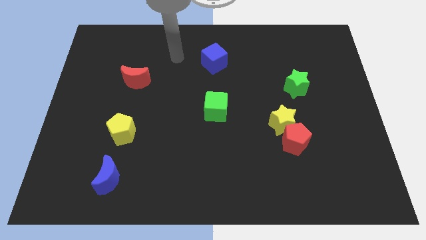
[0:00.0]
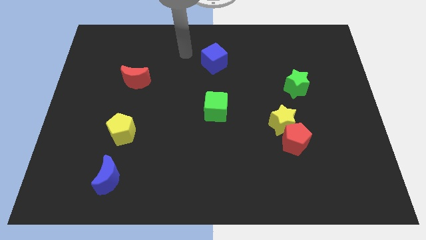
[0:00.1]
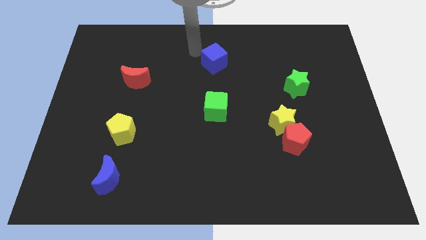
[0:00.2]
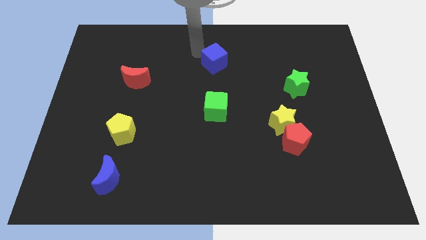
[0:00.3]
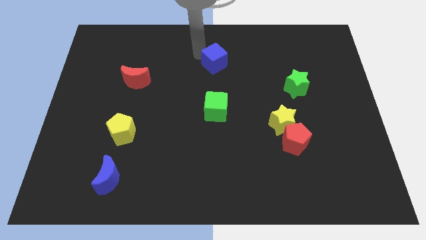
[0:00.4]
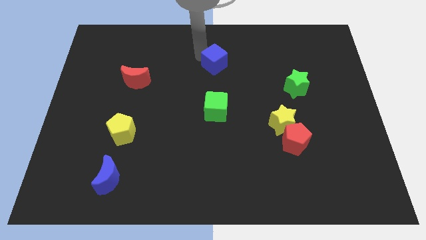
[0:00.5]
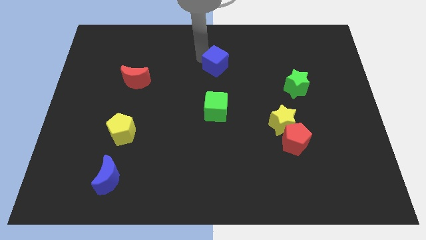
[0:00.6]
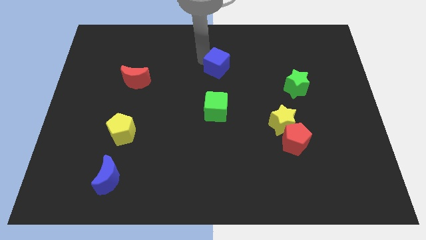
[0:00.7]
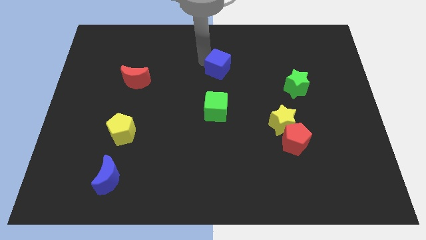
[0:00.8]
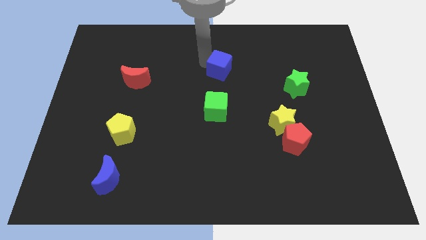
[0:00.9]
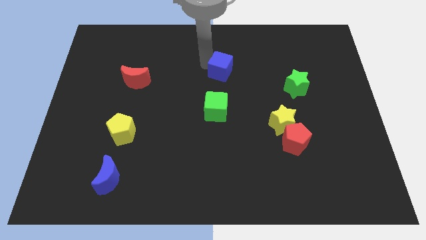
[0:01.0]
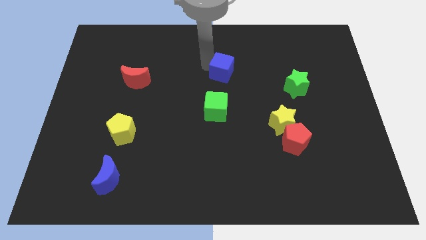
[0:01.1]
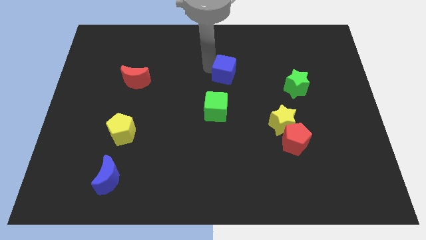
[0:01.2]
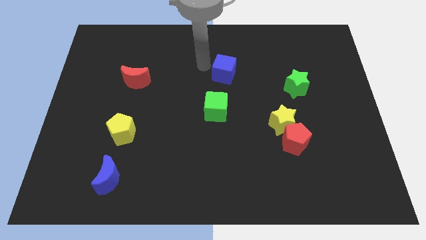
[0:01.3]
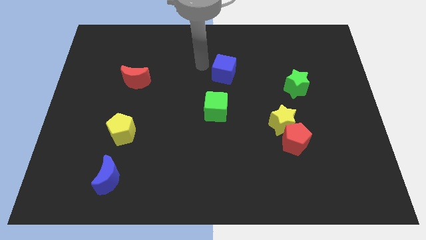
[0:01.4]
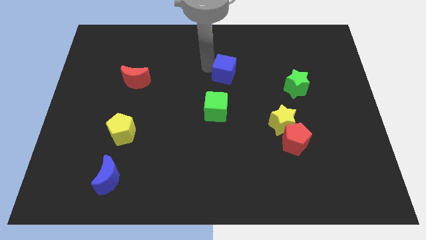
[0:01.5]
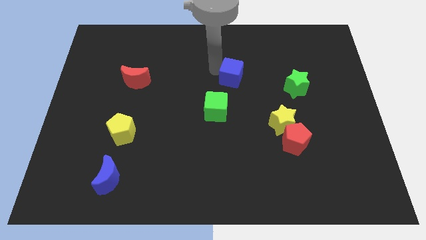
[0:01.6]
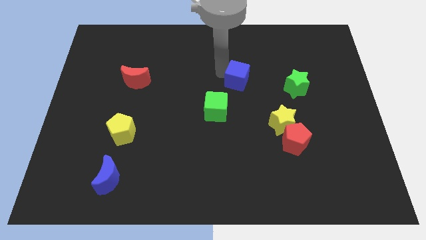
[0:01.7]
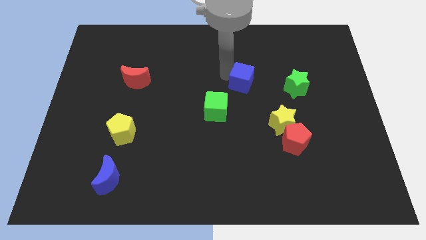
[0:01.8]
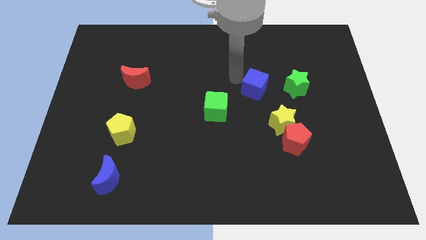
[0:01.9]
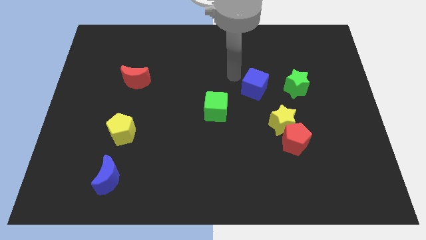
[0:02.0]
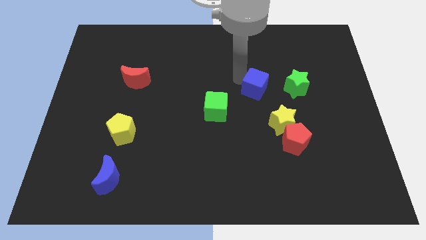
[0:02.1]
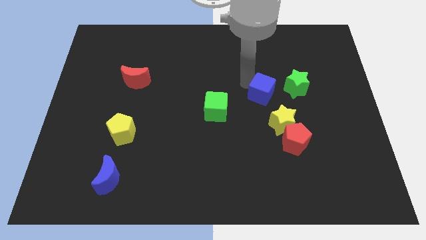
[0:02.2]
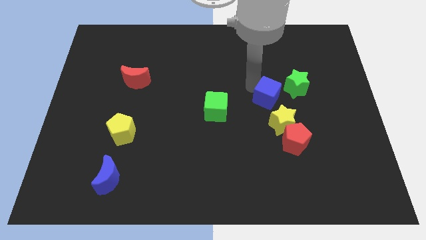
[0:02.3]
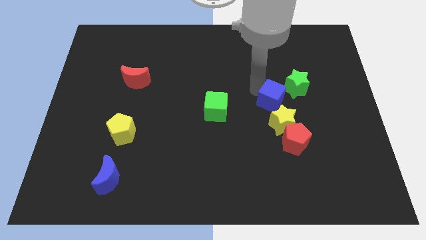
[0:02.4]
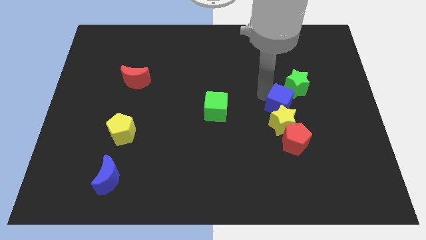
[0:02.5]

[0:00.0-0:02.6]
move the blue cube diagonally down and to the right

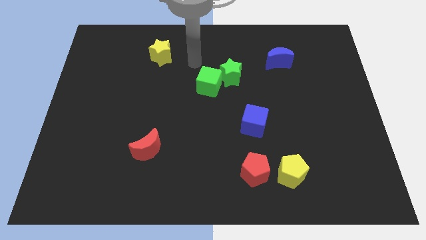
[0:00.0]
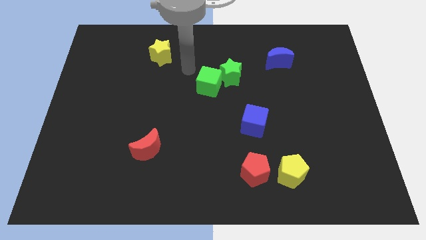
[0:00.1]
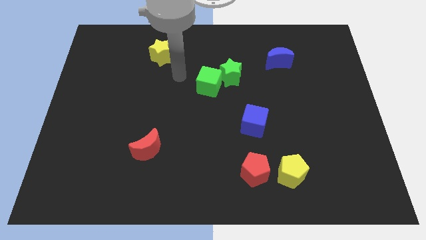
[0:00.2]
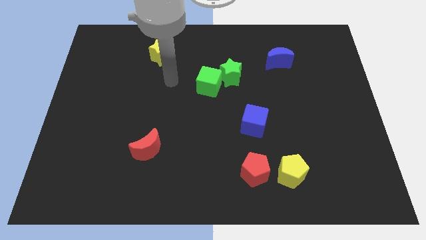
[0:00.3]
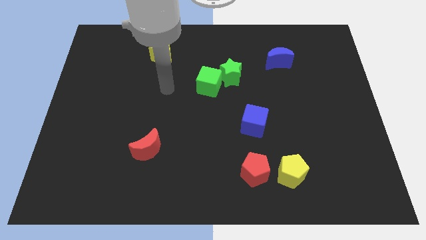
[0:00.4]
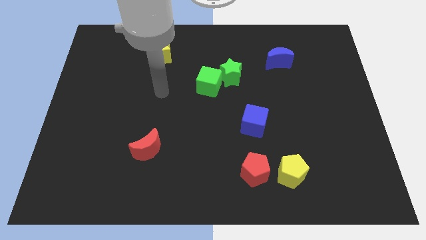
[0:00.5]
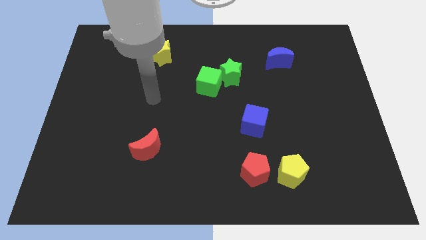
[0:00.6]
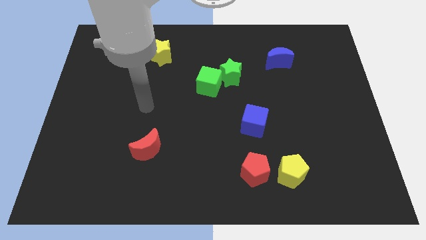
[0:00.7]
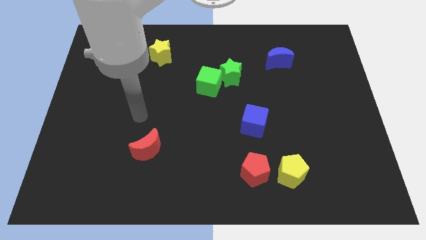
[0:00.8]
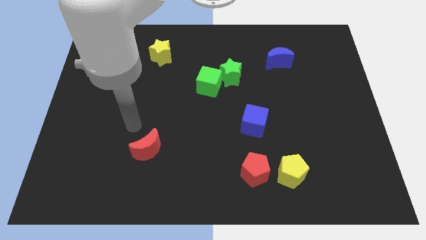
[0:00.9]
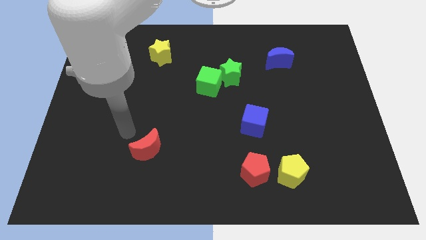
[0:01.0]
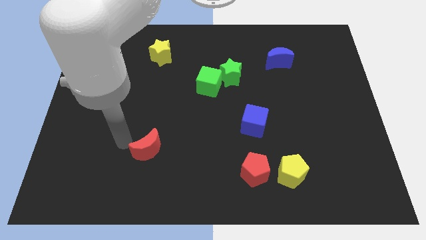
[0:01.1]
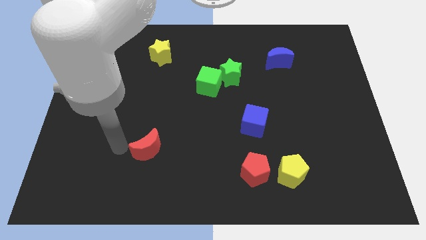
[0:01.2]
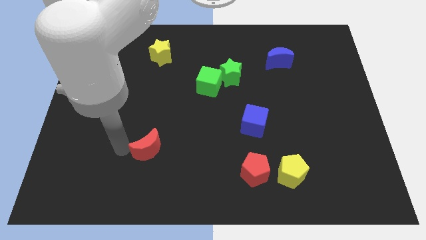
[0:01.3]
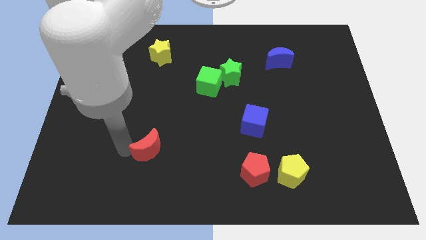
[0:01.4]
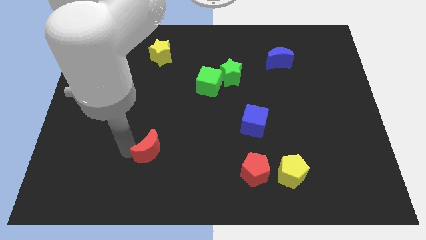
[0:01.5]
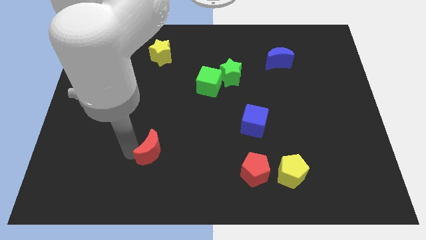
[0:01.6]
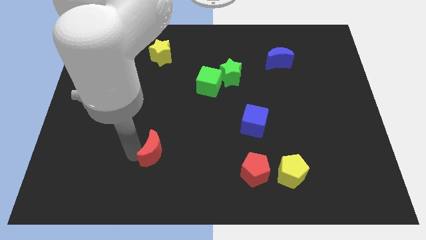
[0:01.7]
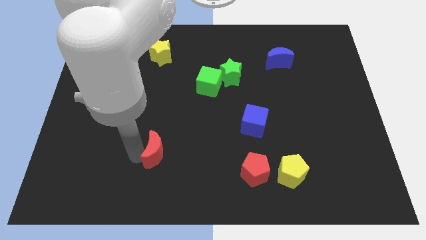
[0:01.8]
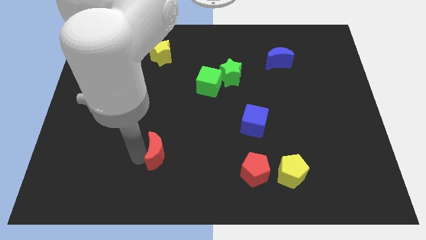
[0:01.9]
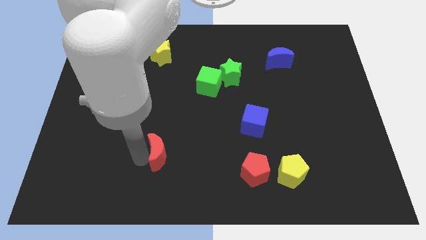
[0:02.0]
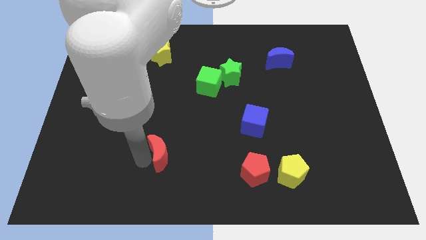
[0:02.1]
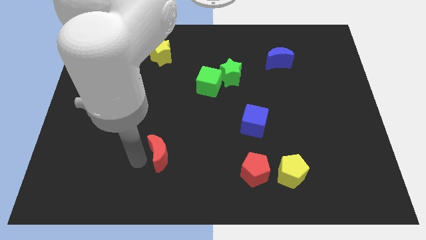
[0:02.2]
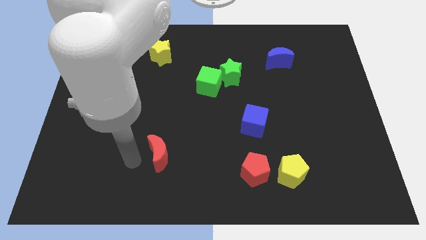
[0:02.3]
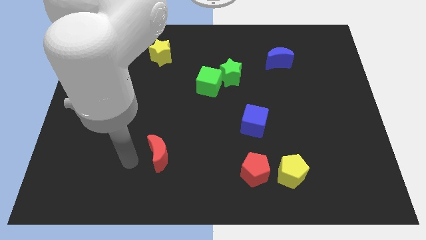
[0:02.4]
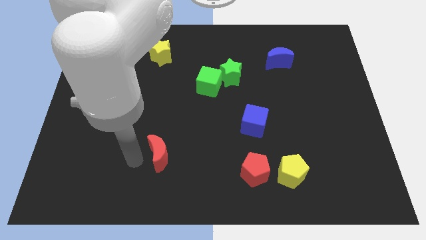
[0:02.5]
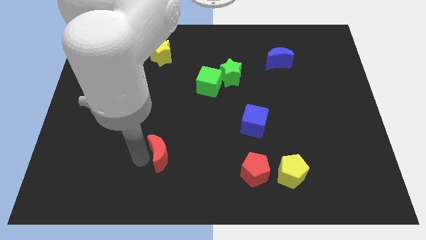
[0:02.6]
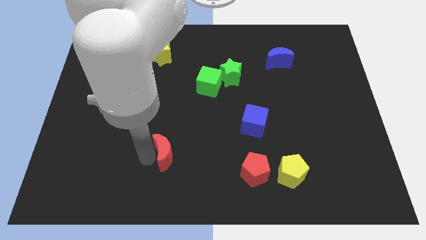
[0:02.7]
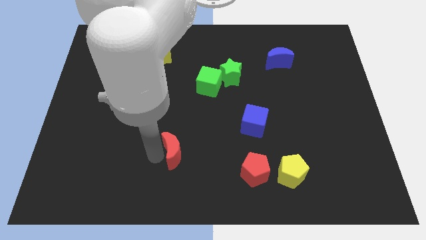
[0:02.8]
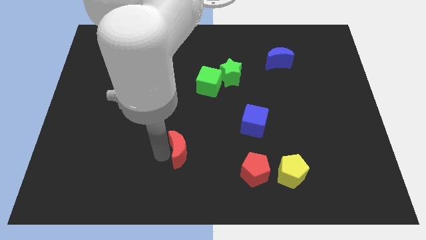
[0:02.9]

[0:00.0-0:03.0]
slightly push the red moon to the right

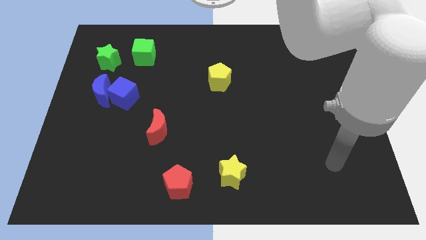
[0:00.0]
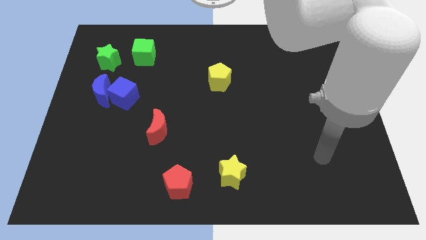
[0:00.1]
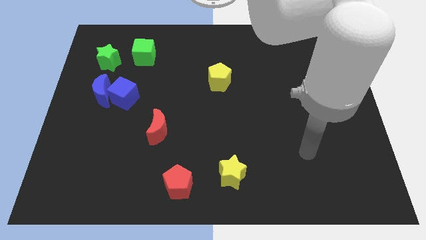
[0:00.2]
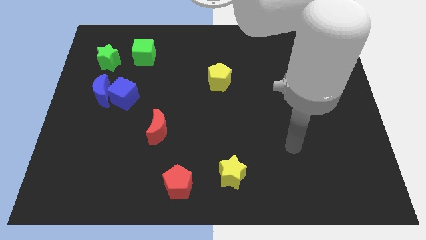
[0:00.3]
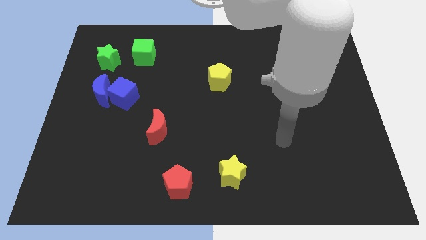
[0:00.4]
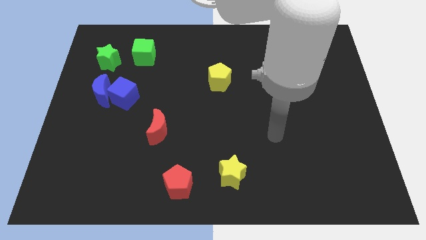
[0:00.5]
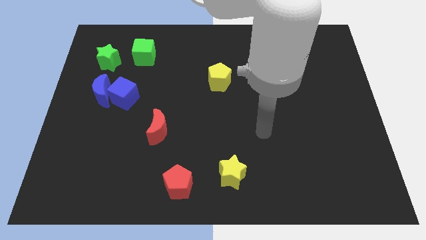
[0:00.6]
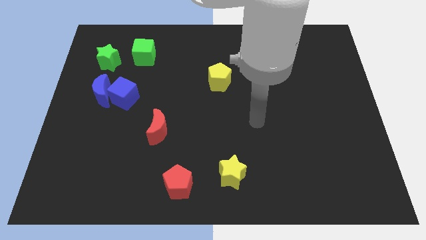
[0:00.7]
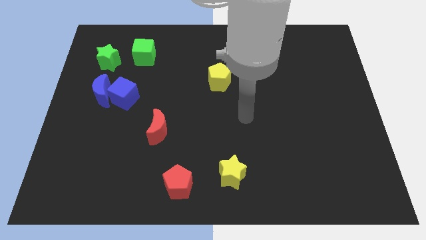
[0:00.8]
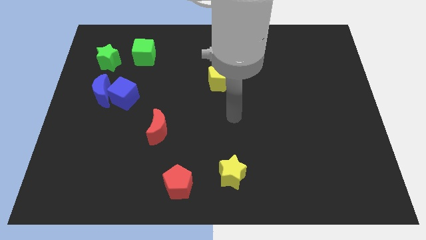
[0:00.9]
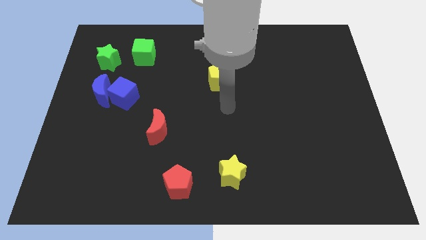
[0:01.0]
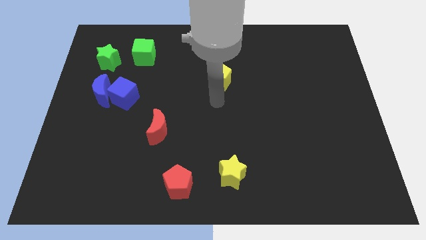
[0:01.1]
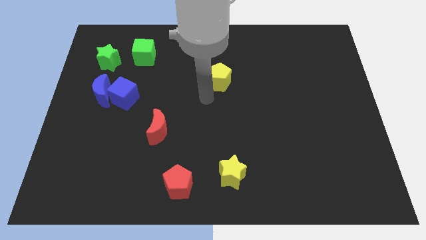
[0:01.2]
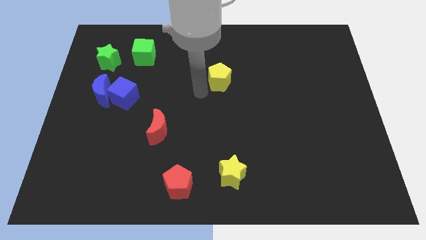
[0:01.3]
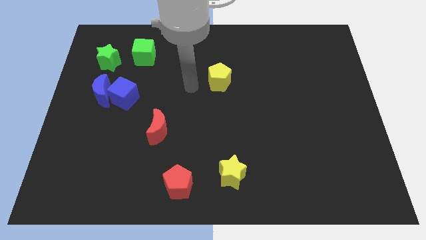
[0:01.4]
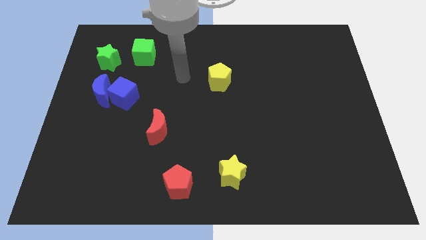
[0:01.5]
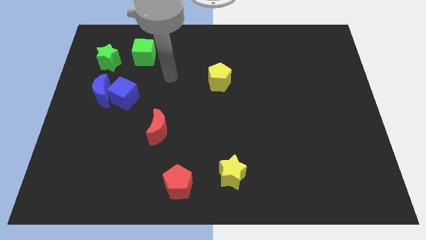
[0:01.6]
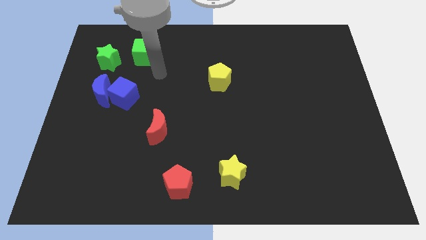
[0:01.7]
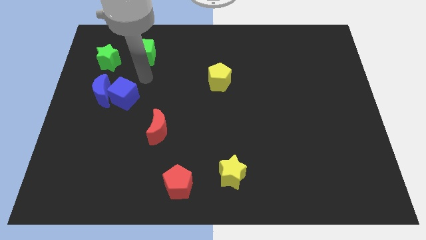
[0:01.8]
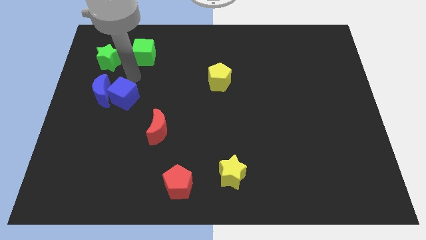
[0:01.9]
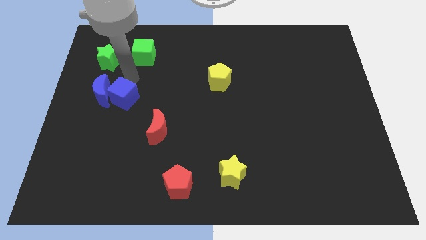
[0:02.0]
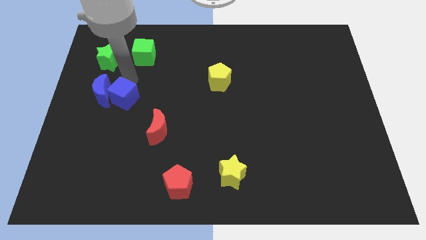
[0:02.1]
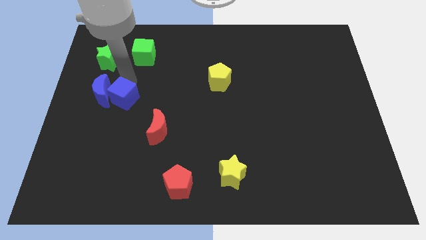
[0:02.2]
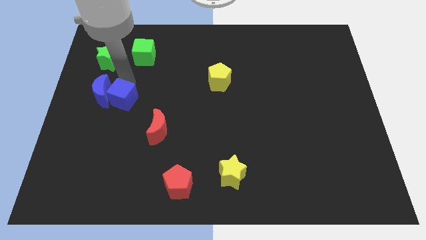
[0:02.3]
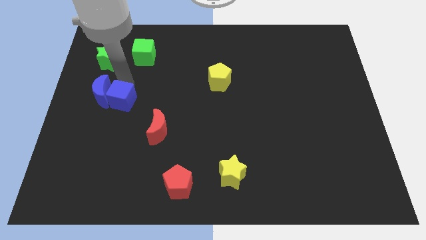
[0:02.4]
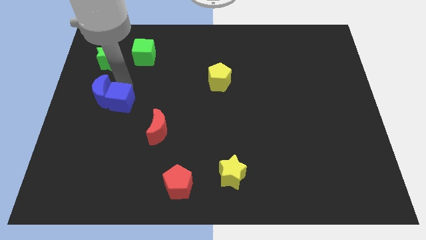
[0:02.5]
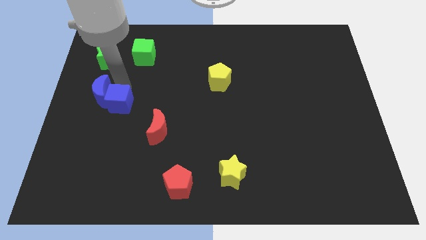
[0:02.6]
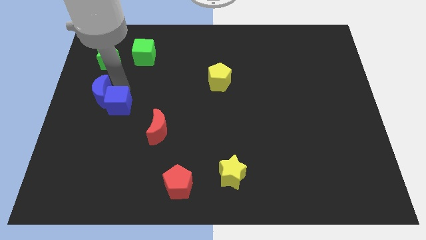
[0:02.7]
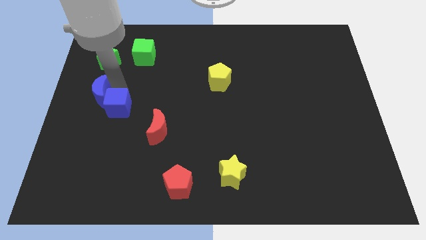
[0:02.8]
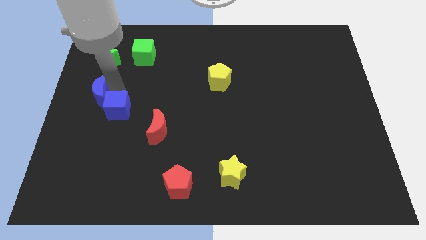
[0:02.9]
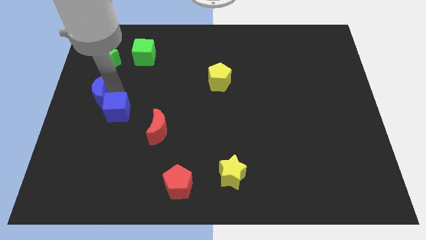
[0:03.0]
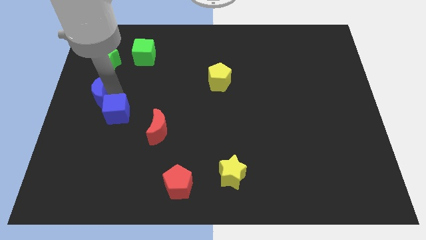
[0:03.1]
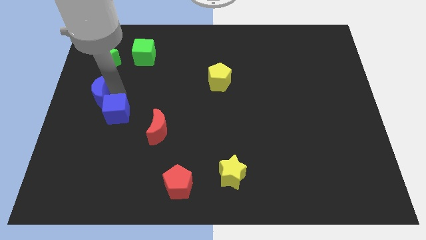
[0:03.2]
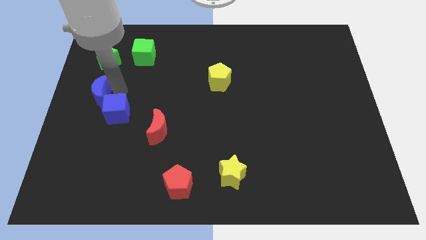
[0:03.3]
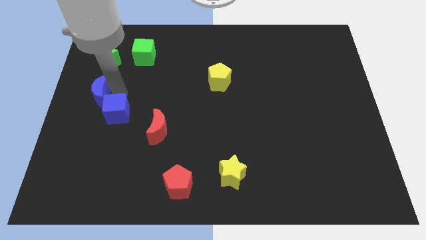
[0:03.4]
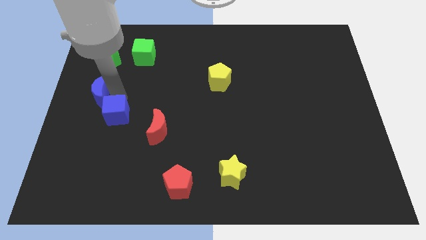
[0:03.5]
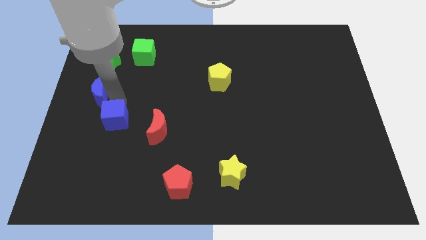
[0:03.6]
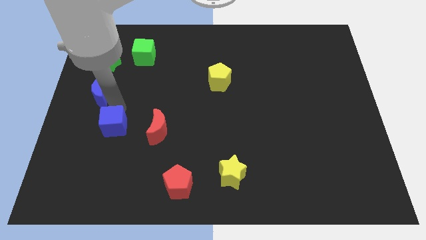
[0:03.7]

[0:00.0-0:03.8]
slightly push the blue cube downwards
